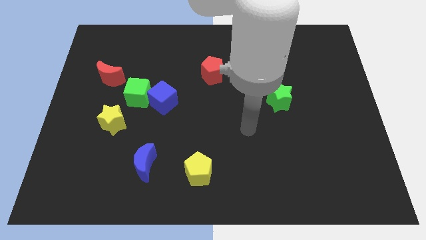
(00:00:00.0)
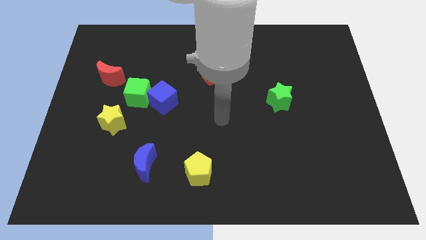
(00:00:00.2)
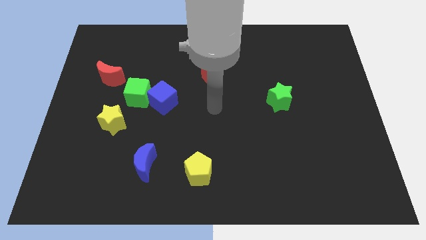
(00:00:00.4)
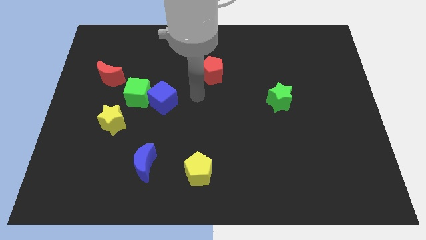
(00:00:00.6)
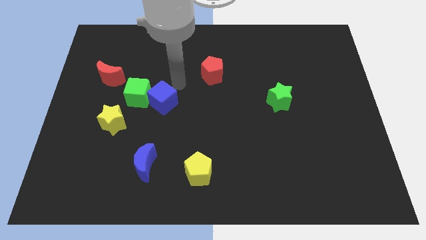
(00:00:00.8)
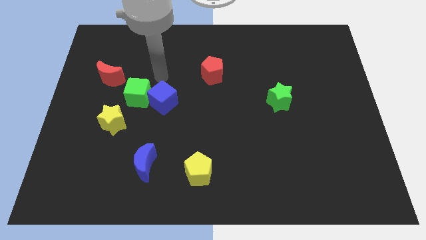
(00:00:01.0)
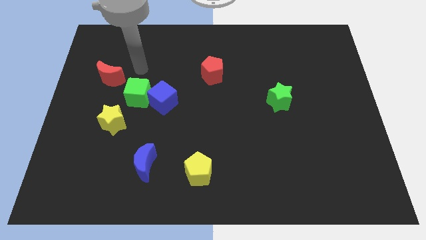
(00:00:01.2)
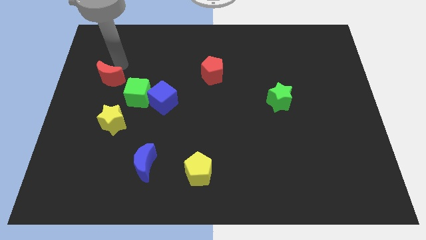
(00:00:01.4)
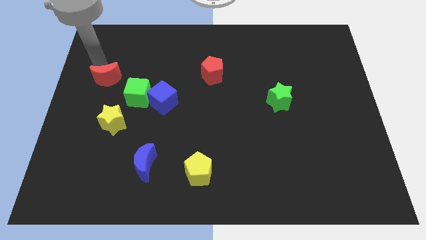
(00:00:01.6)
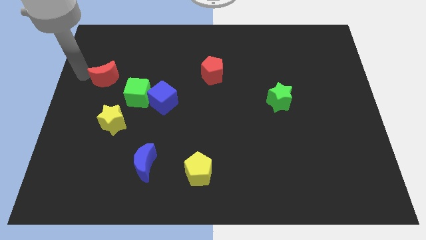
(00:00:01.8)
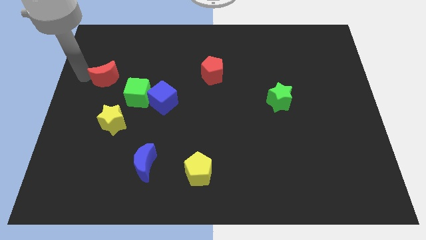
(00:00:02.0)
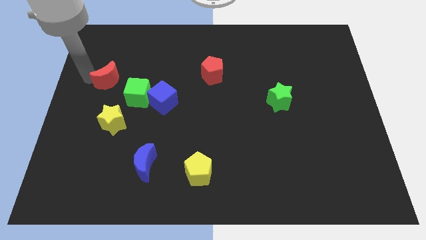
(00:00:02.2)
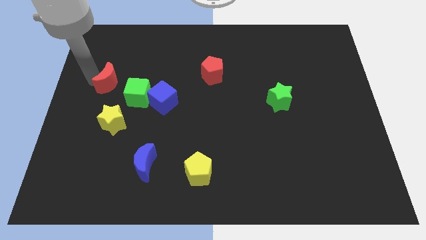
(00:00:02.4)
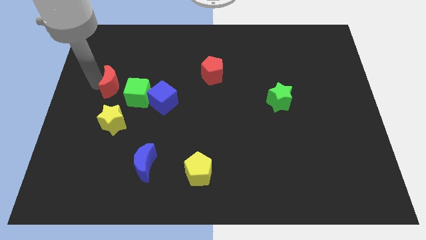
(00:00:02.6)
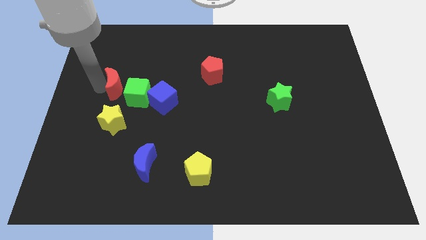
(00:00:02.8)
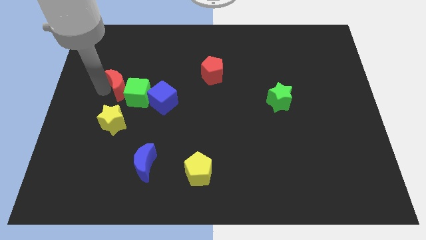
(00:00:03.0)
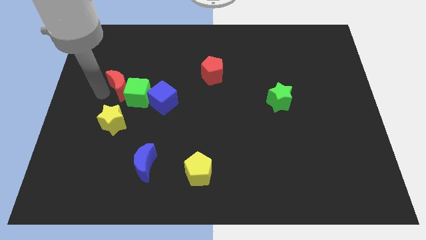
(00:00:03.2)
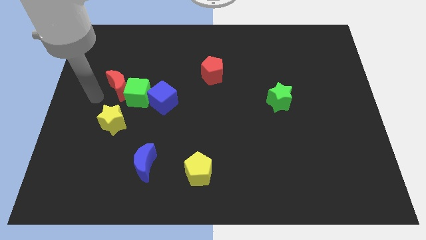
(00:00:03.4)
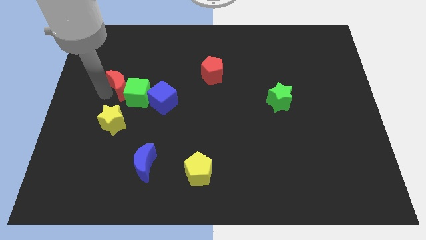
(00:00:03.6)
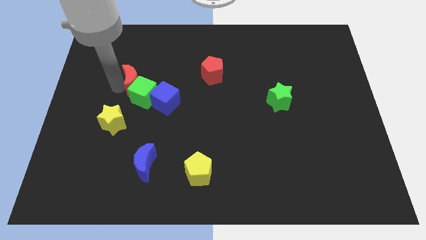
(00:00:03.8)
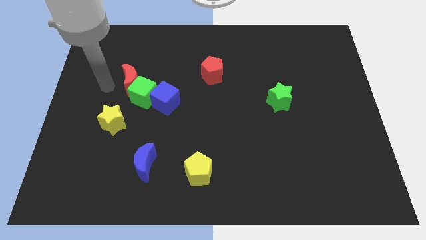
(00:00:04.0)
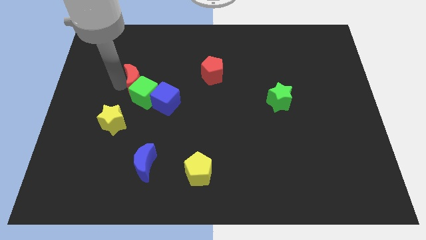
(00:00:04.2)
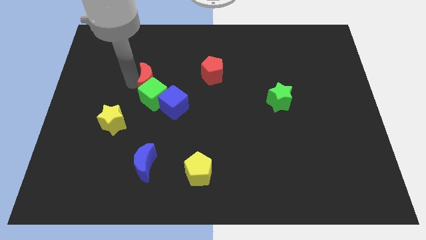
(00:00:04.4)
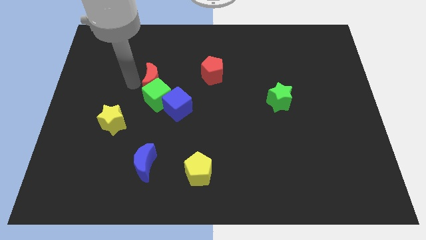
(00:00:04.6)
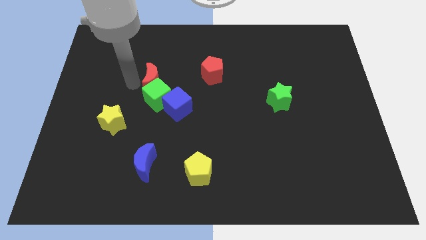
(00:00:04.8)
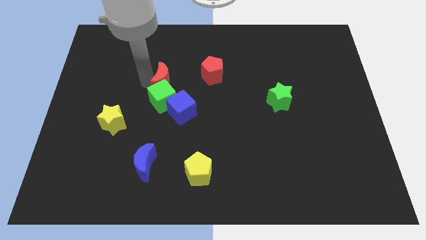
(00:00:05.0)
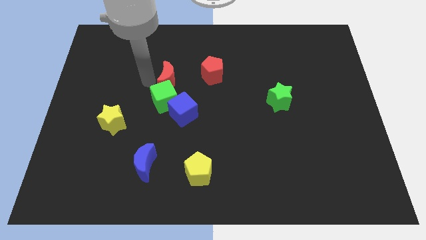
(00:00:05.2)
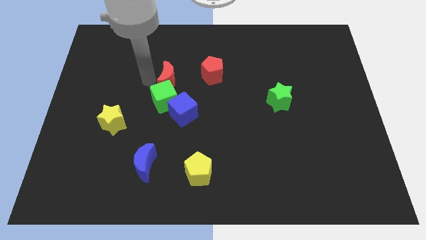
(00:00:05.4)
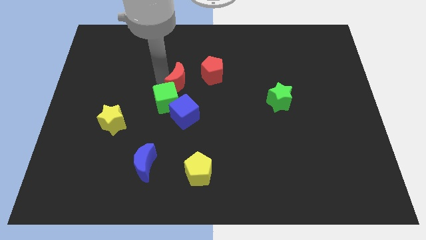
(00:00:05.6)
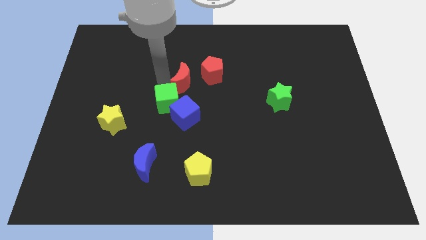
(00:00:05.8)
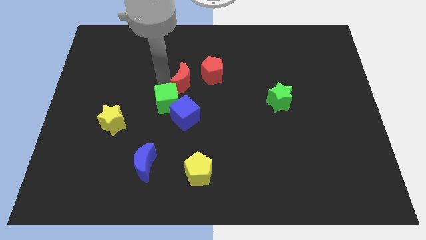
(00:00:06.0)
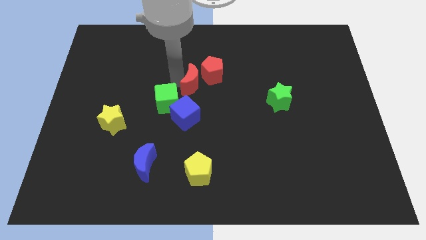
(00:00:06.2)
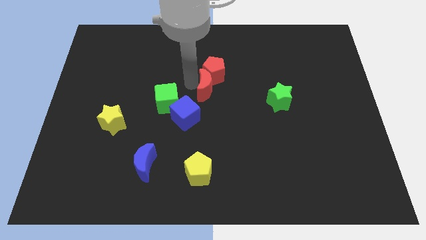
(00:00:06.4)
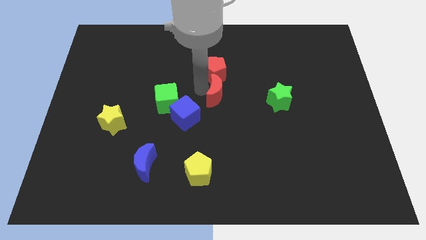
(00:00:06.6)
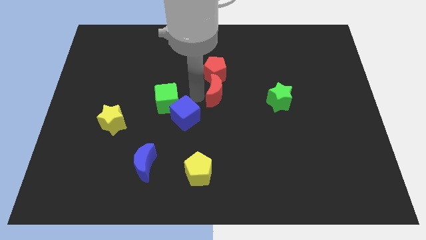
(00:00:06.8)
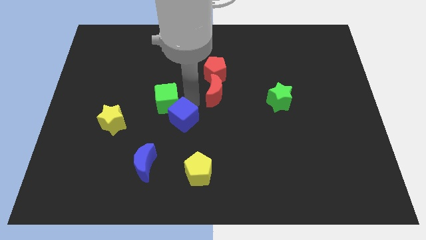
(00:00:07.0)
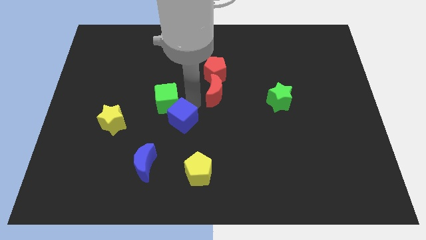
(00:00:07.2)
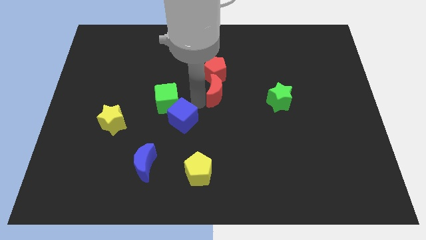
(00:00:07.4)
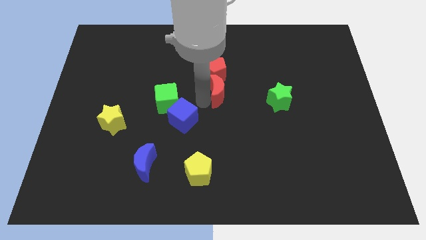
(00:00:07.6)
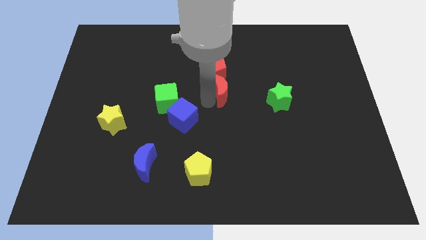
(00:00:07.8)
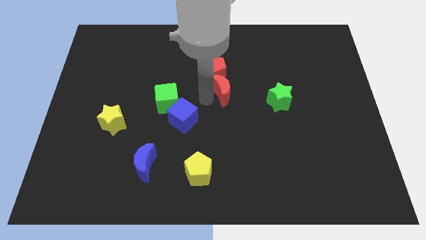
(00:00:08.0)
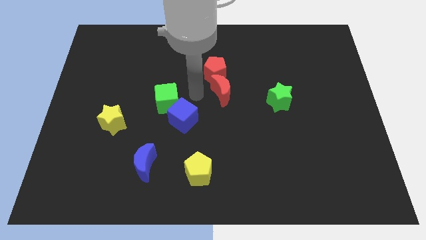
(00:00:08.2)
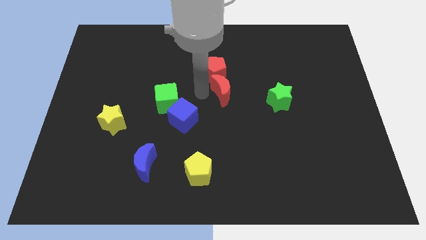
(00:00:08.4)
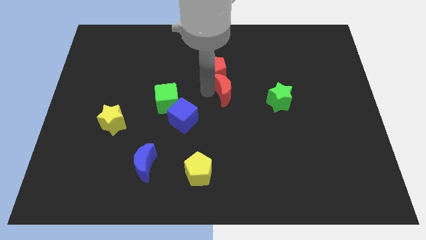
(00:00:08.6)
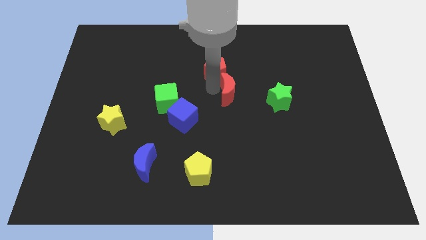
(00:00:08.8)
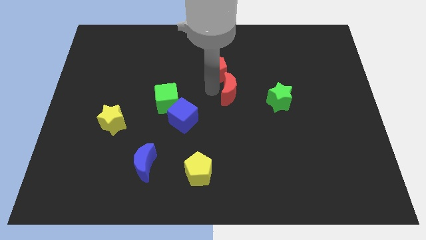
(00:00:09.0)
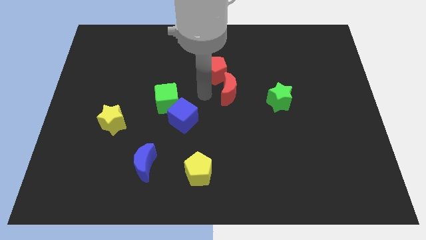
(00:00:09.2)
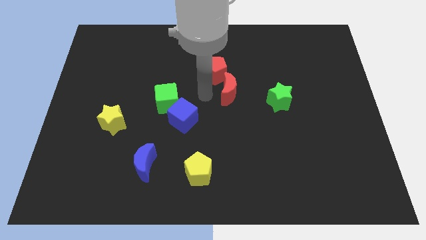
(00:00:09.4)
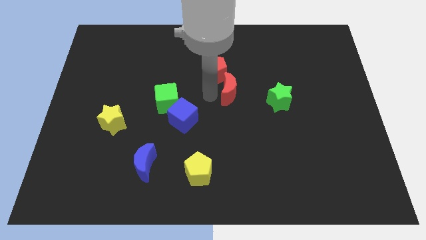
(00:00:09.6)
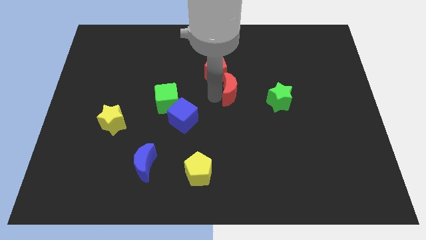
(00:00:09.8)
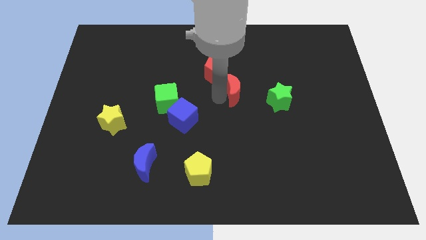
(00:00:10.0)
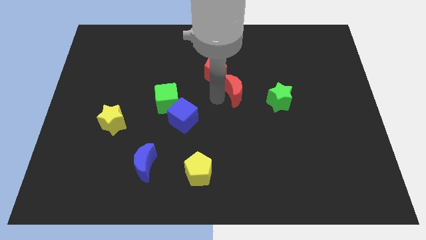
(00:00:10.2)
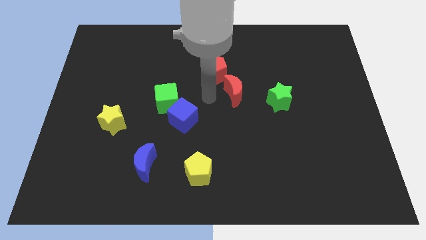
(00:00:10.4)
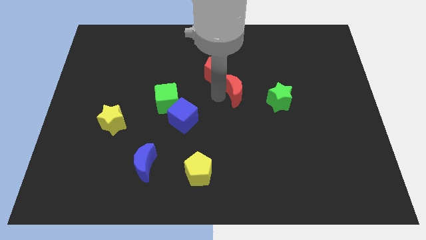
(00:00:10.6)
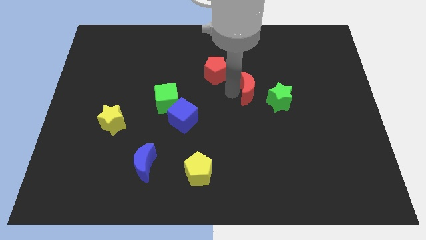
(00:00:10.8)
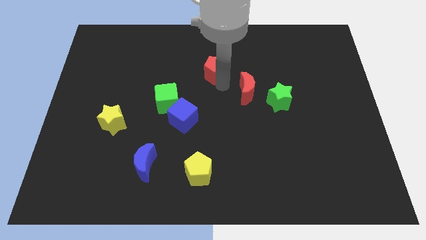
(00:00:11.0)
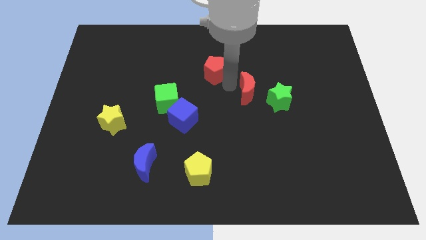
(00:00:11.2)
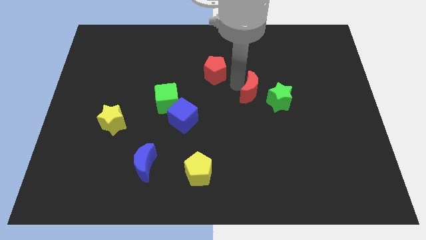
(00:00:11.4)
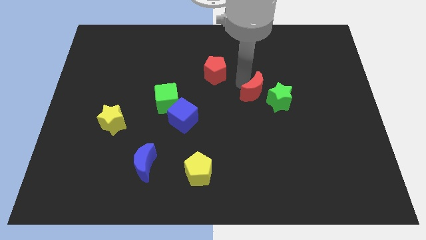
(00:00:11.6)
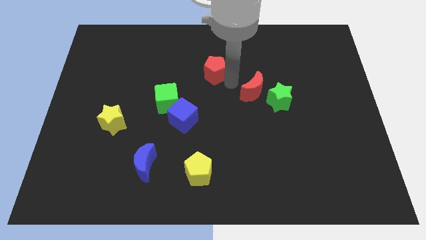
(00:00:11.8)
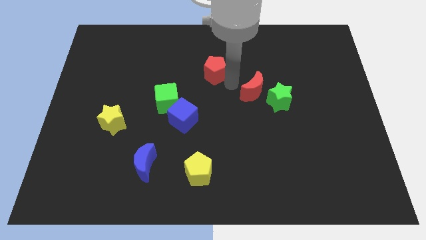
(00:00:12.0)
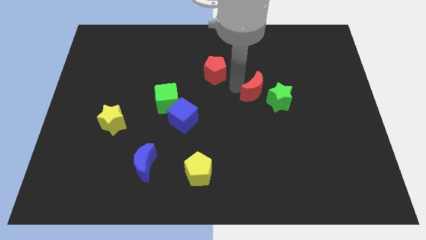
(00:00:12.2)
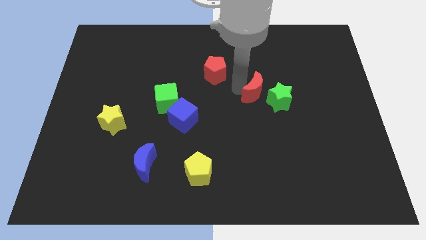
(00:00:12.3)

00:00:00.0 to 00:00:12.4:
put the red moon to the green star

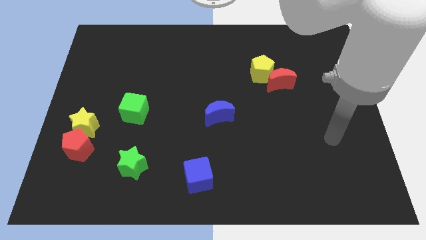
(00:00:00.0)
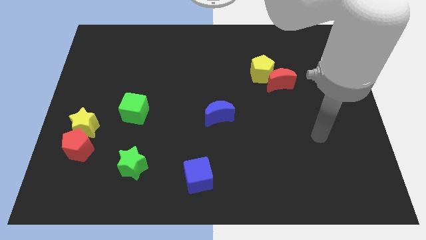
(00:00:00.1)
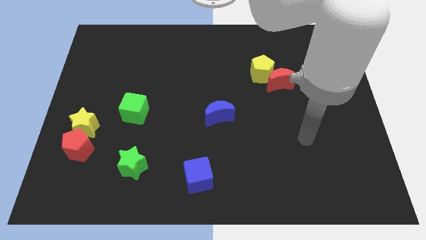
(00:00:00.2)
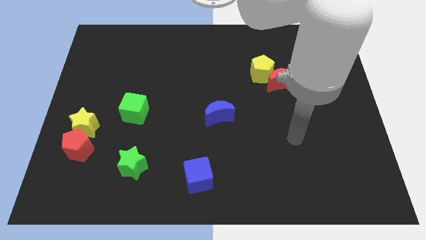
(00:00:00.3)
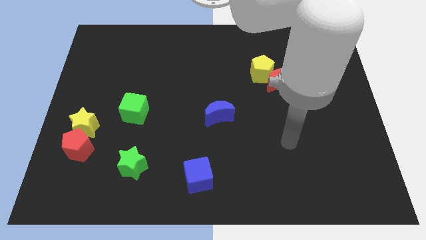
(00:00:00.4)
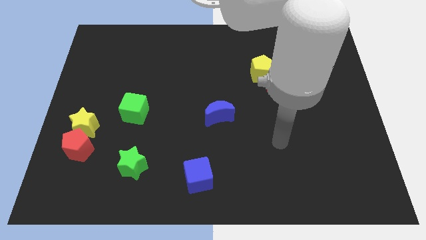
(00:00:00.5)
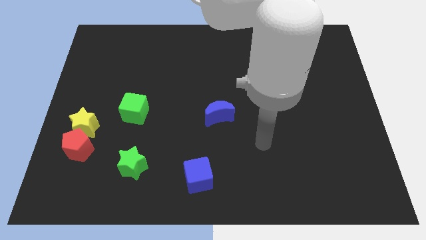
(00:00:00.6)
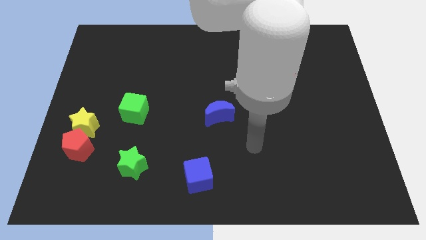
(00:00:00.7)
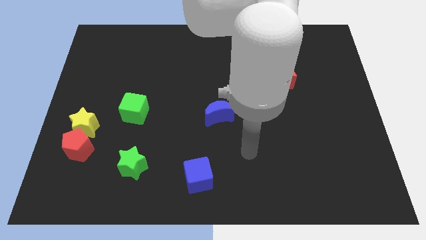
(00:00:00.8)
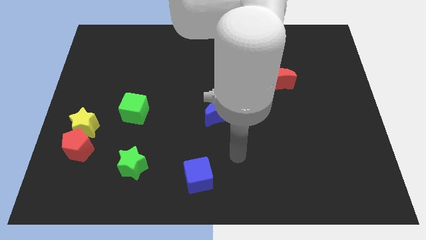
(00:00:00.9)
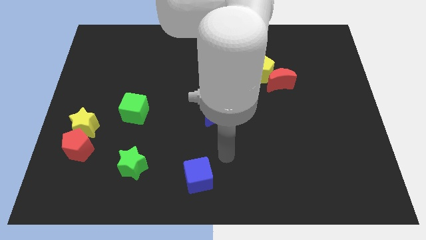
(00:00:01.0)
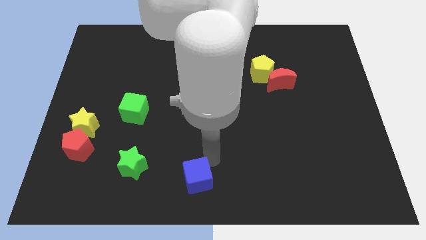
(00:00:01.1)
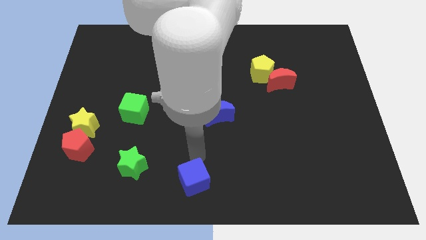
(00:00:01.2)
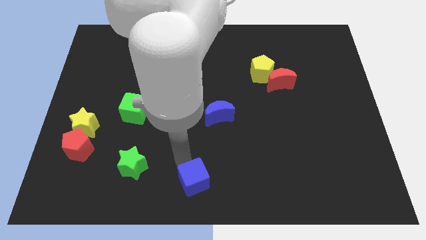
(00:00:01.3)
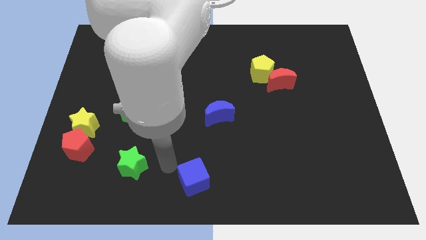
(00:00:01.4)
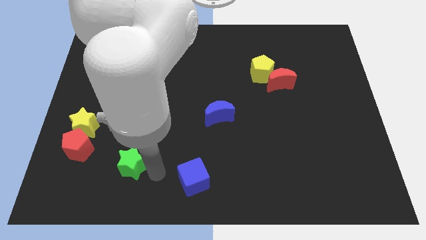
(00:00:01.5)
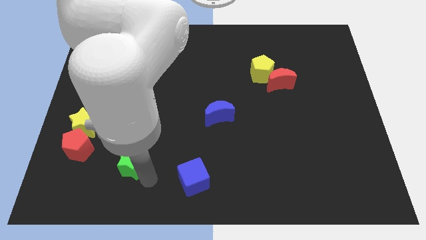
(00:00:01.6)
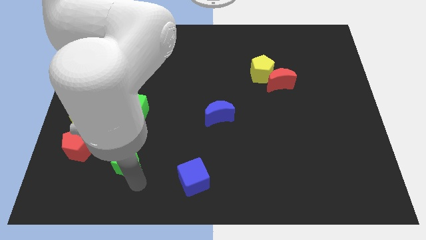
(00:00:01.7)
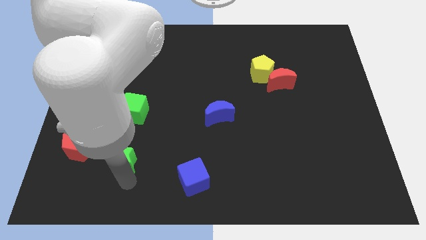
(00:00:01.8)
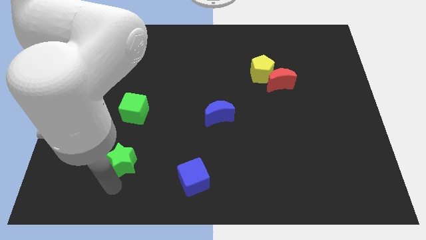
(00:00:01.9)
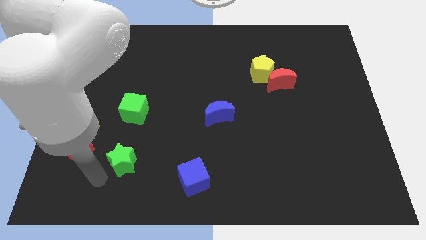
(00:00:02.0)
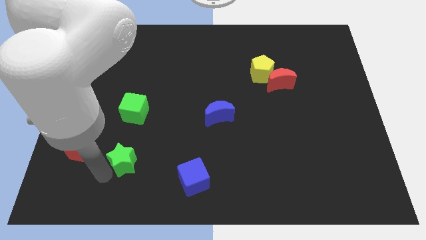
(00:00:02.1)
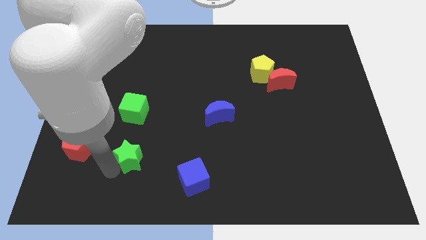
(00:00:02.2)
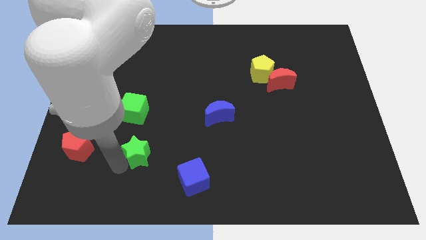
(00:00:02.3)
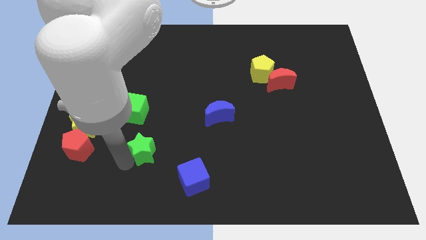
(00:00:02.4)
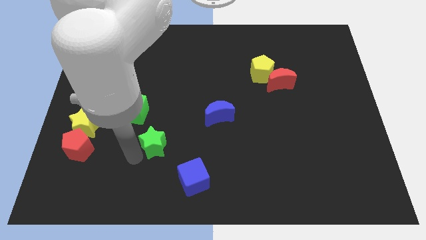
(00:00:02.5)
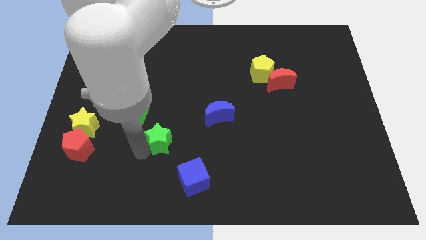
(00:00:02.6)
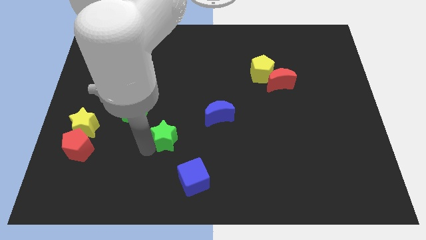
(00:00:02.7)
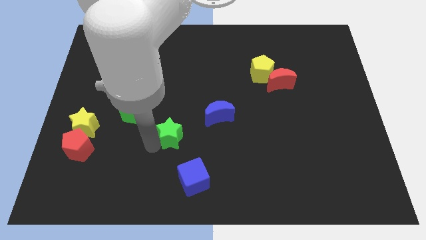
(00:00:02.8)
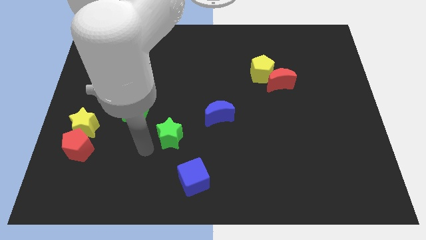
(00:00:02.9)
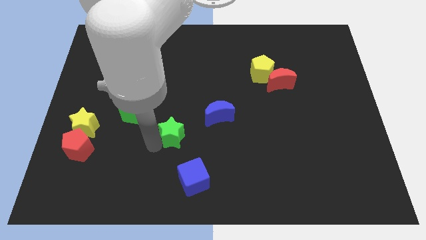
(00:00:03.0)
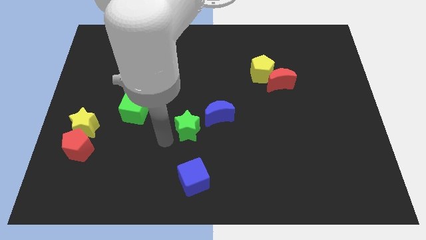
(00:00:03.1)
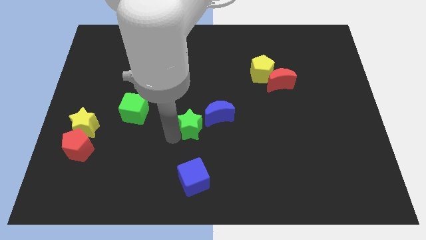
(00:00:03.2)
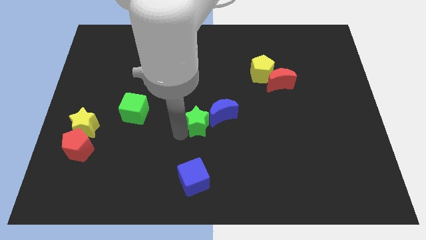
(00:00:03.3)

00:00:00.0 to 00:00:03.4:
put the green star towards the blue moon
